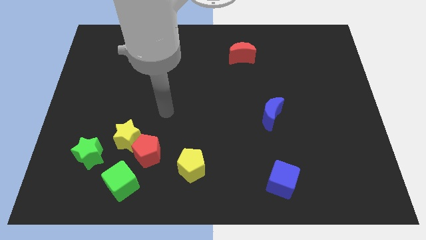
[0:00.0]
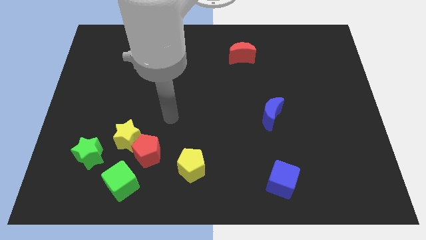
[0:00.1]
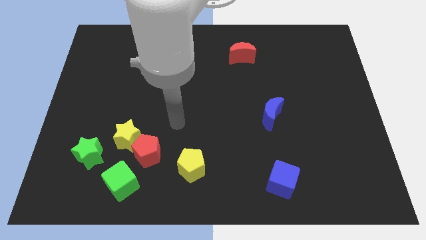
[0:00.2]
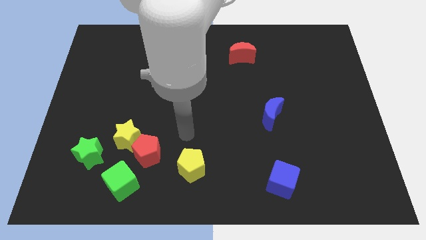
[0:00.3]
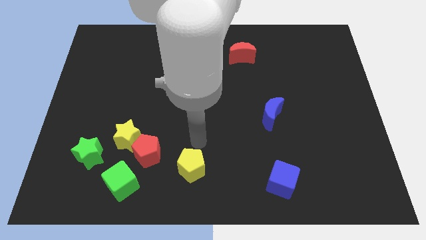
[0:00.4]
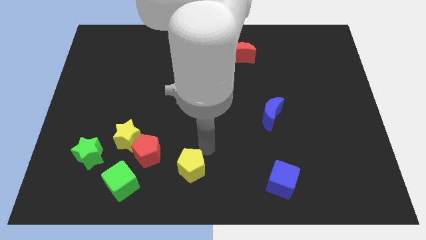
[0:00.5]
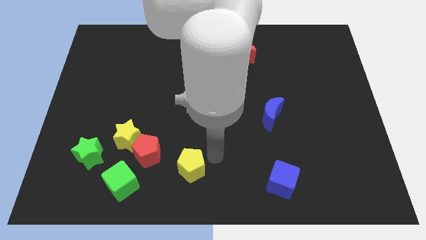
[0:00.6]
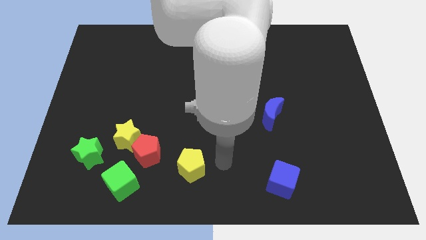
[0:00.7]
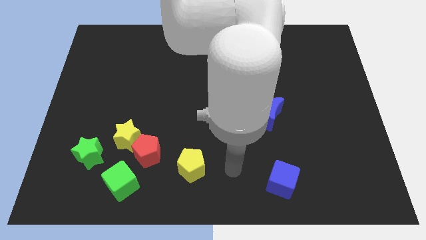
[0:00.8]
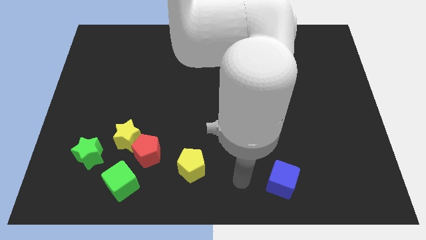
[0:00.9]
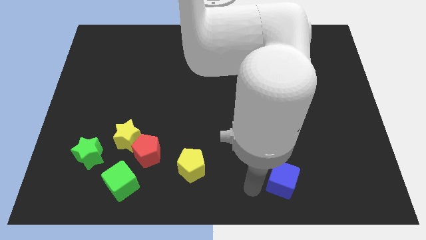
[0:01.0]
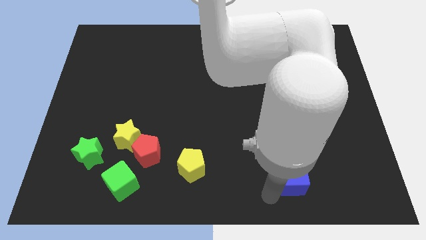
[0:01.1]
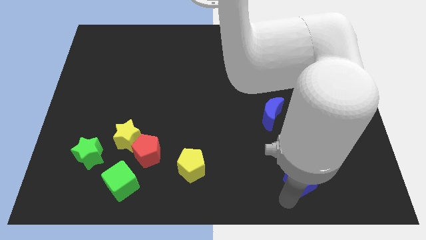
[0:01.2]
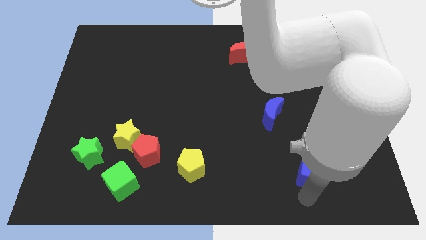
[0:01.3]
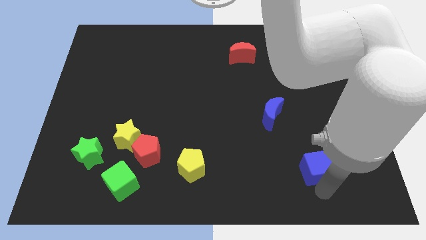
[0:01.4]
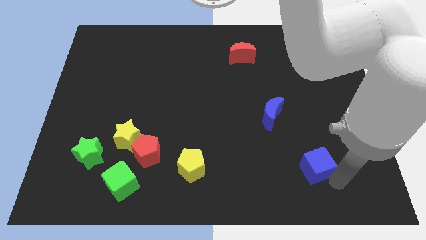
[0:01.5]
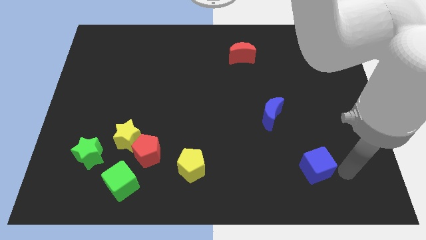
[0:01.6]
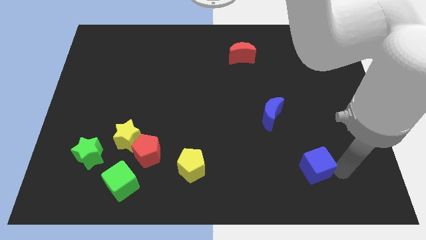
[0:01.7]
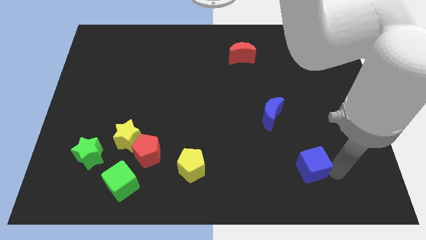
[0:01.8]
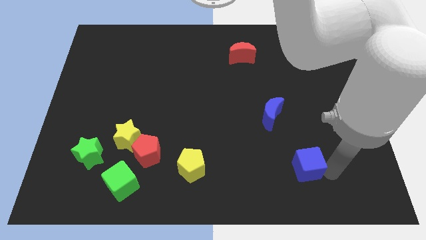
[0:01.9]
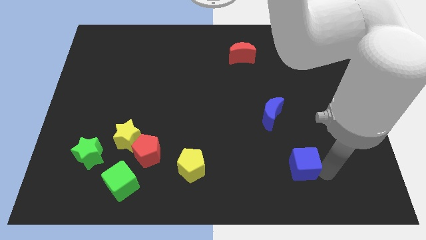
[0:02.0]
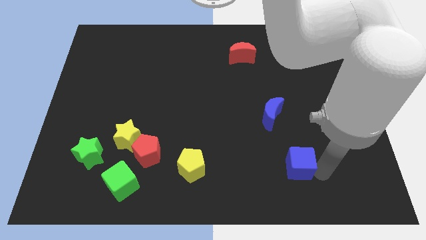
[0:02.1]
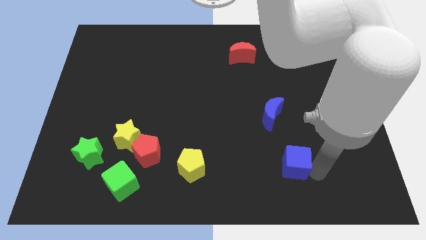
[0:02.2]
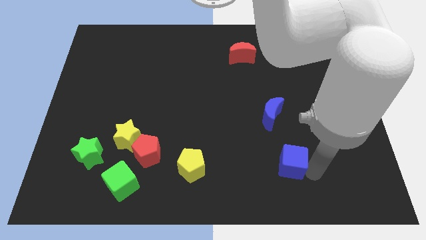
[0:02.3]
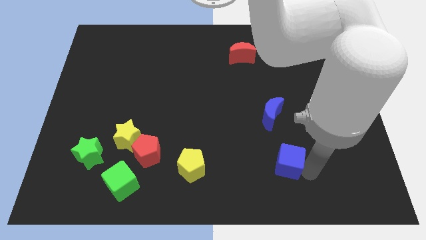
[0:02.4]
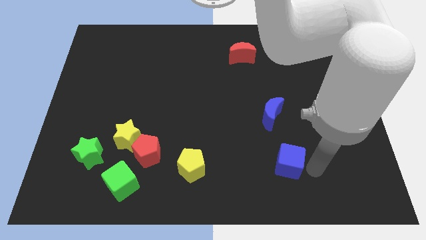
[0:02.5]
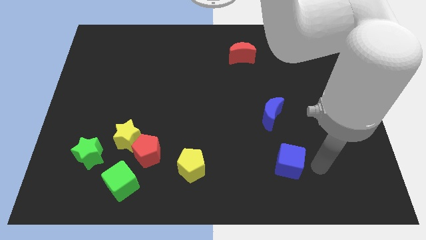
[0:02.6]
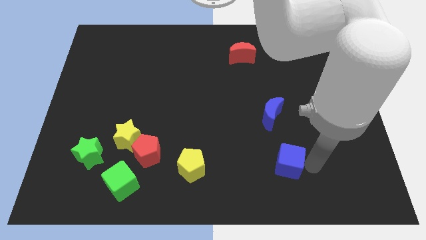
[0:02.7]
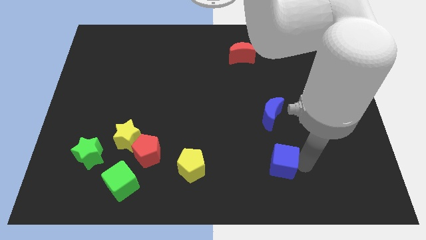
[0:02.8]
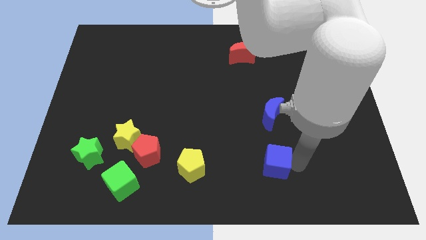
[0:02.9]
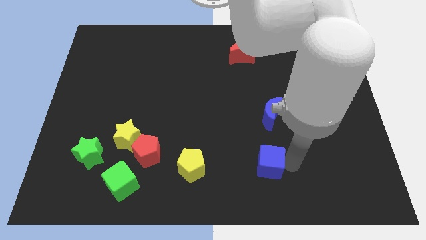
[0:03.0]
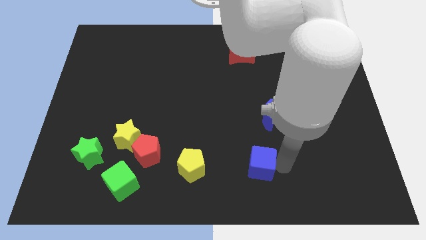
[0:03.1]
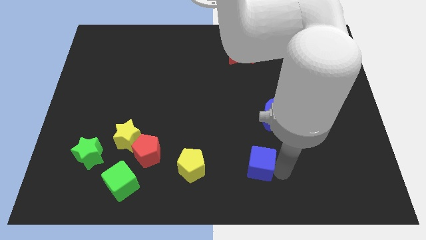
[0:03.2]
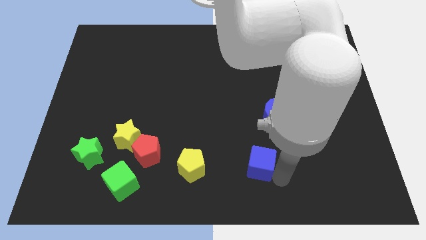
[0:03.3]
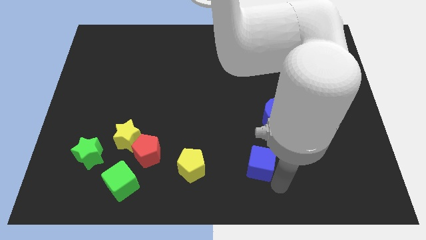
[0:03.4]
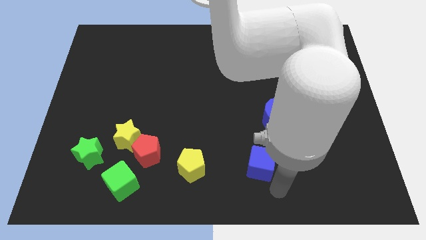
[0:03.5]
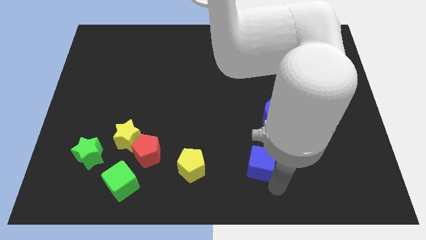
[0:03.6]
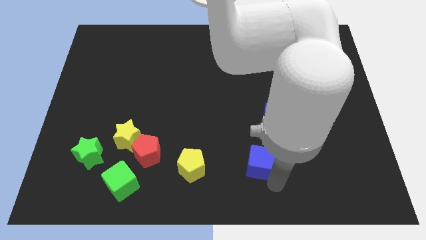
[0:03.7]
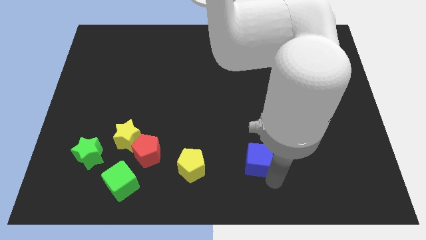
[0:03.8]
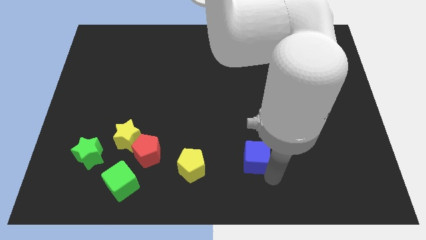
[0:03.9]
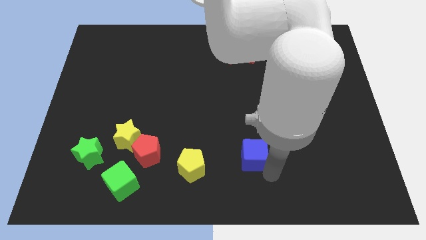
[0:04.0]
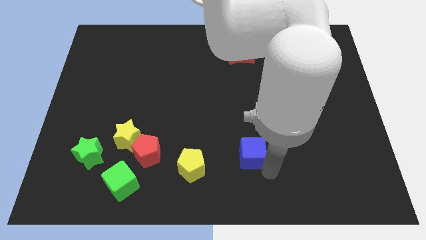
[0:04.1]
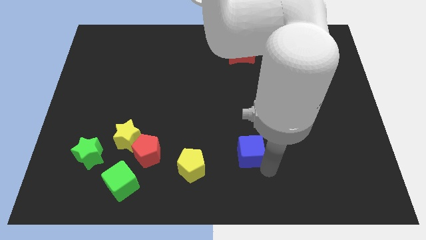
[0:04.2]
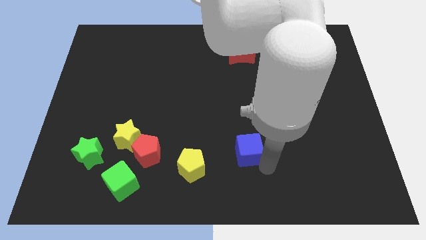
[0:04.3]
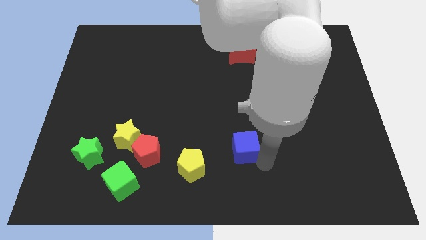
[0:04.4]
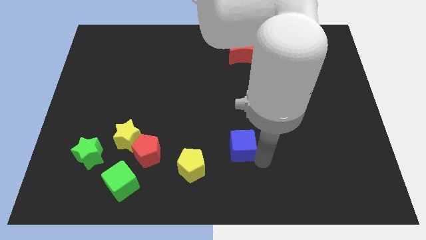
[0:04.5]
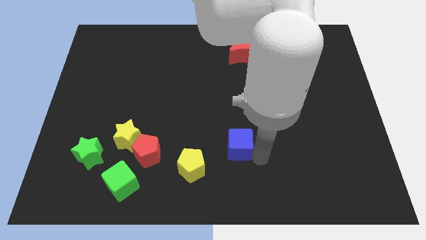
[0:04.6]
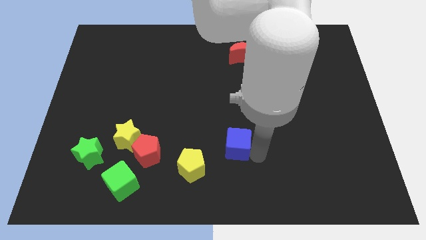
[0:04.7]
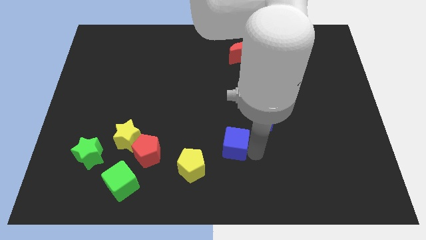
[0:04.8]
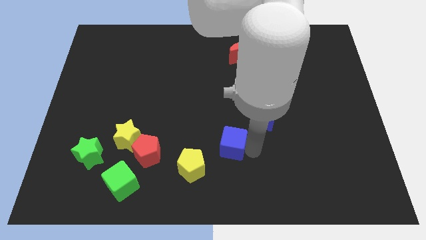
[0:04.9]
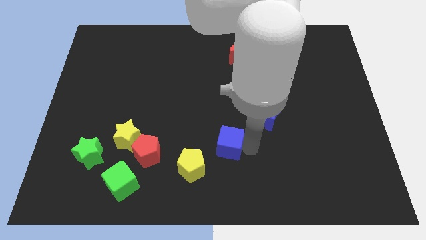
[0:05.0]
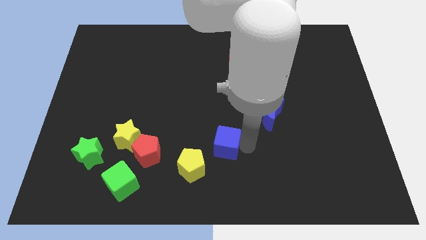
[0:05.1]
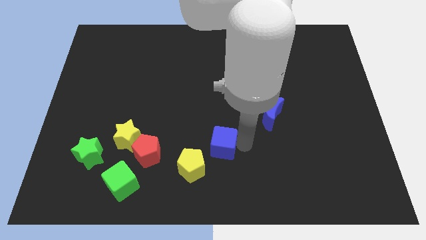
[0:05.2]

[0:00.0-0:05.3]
push the blue cube to the center

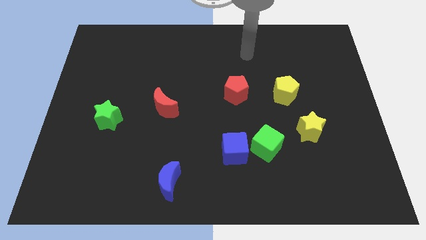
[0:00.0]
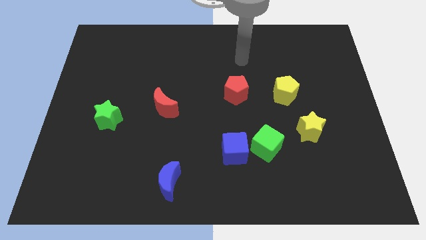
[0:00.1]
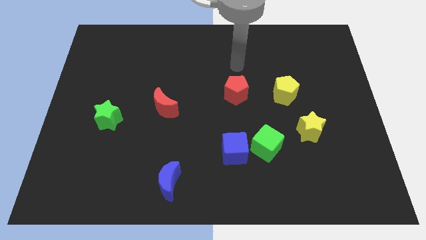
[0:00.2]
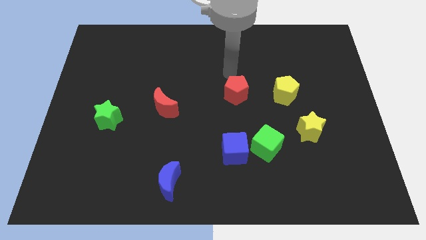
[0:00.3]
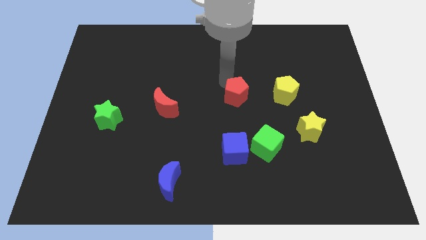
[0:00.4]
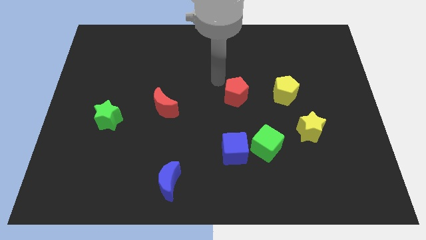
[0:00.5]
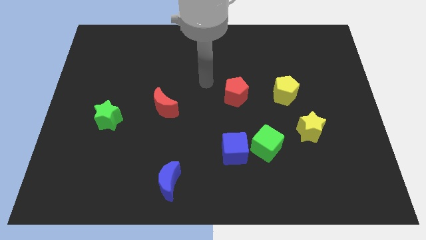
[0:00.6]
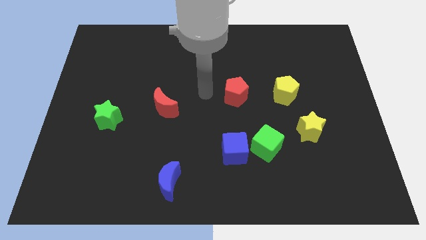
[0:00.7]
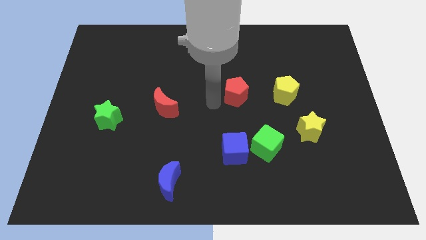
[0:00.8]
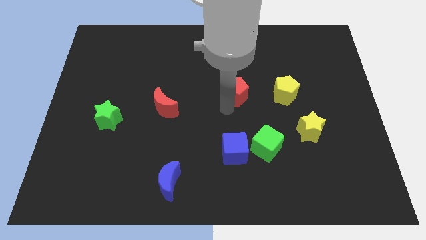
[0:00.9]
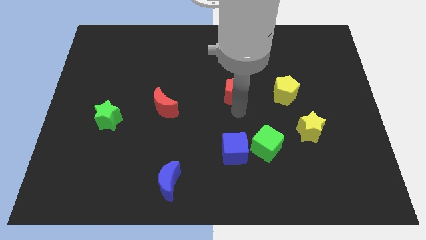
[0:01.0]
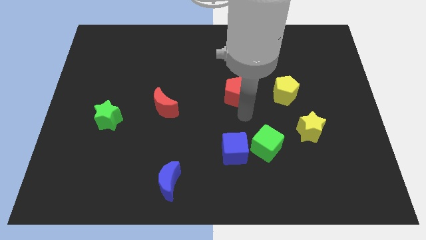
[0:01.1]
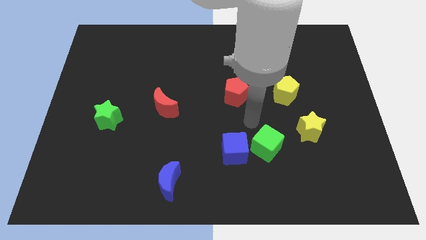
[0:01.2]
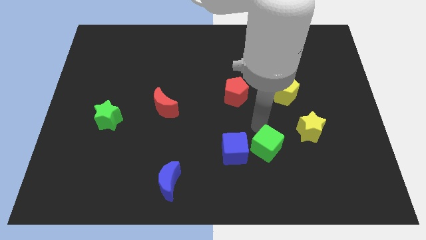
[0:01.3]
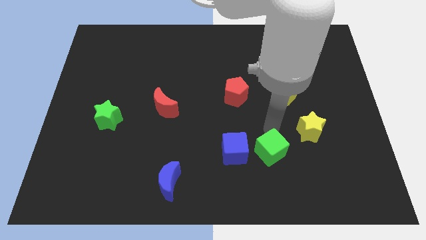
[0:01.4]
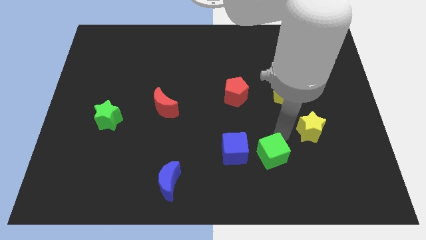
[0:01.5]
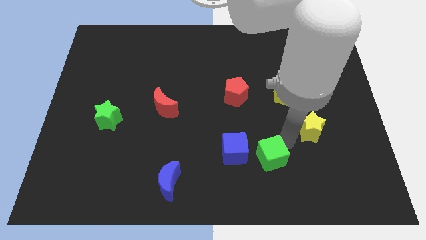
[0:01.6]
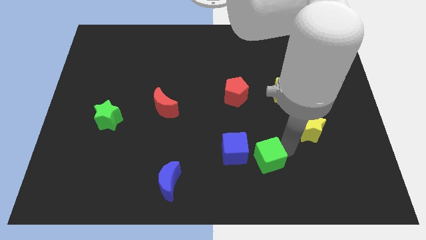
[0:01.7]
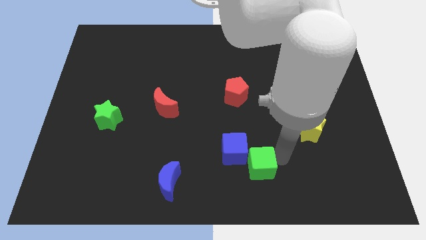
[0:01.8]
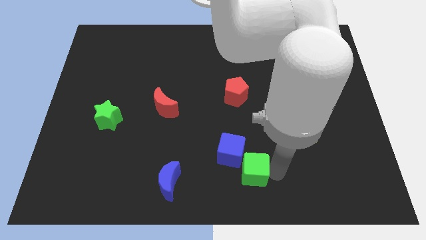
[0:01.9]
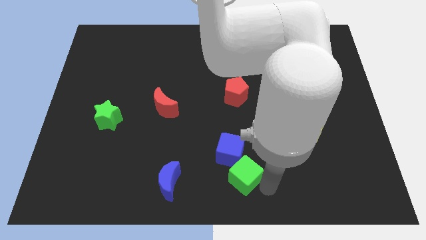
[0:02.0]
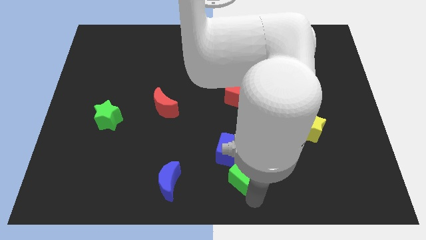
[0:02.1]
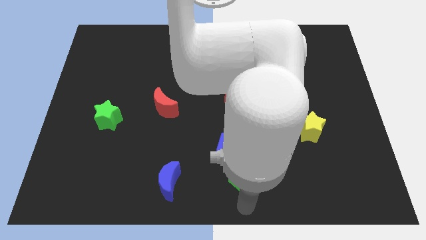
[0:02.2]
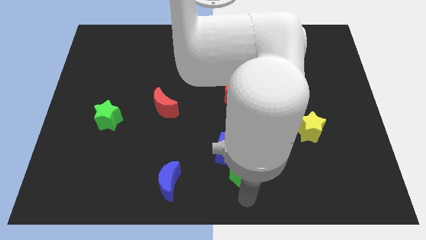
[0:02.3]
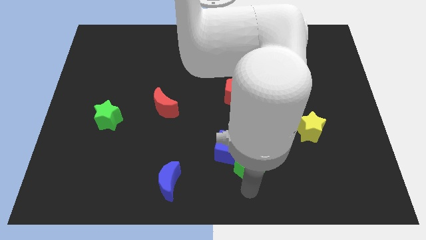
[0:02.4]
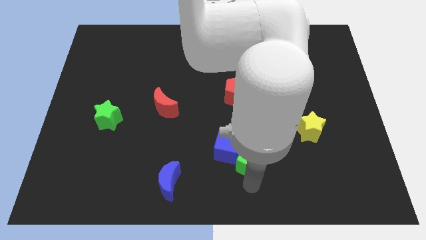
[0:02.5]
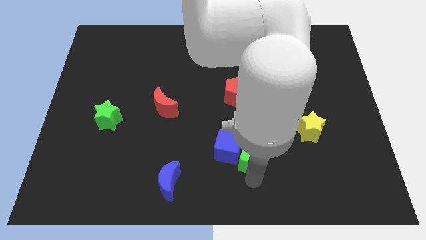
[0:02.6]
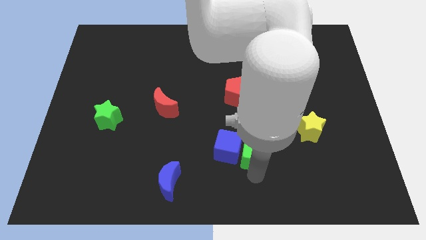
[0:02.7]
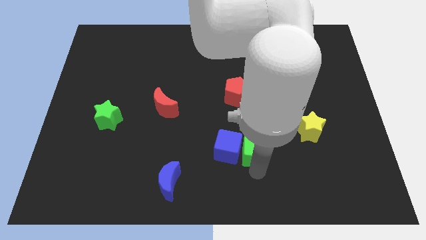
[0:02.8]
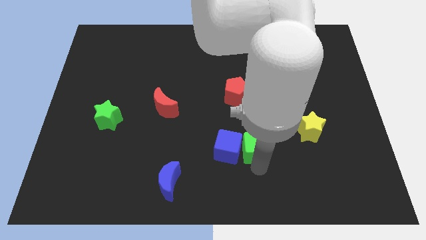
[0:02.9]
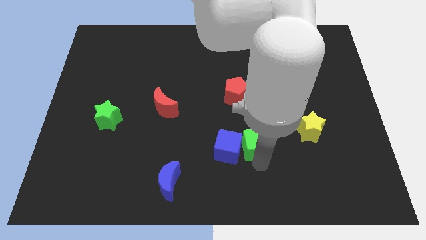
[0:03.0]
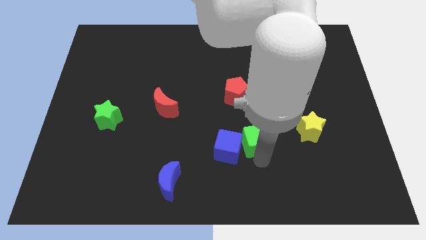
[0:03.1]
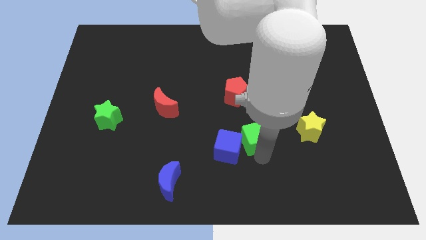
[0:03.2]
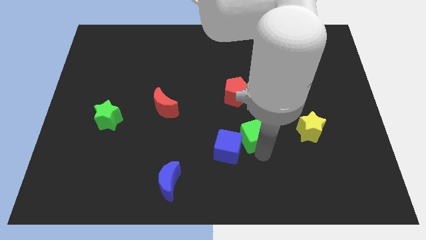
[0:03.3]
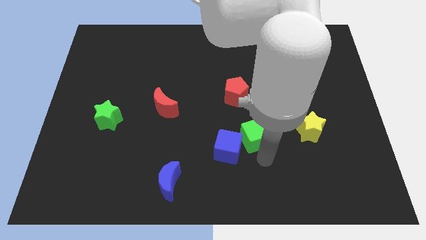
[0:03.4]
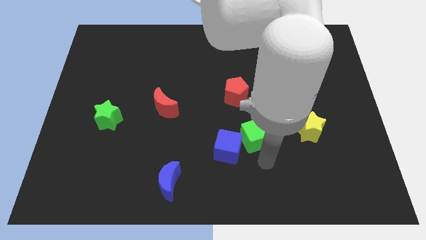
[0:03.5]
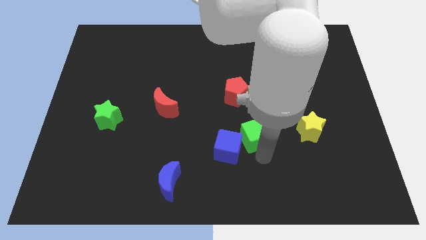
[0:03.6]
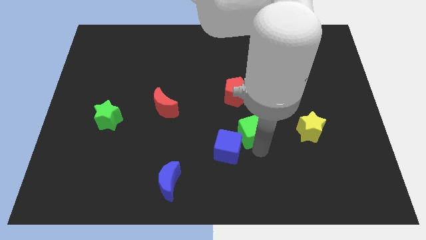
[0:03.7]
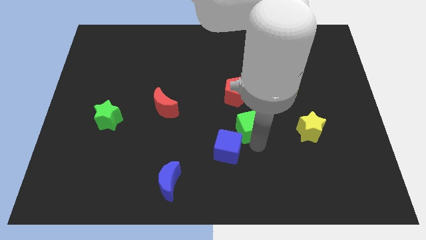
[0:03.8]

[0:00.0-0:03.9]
put the green cube to the center
